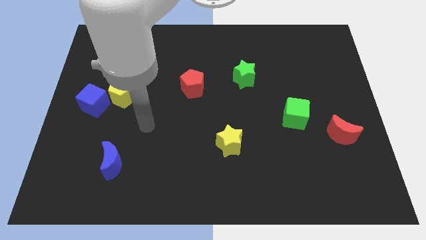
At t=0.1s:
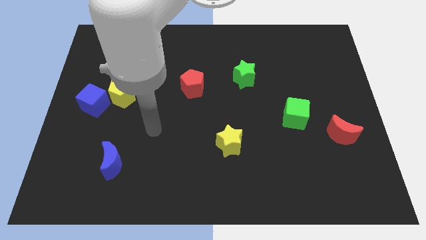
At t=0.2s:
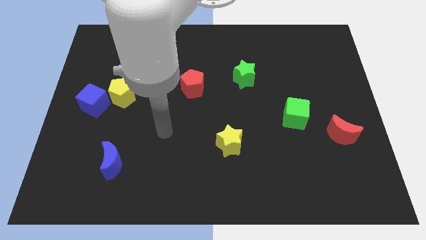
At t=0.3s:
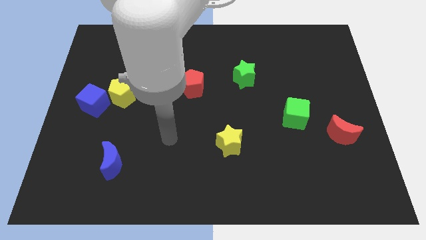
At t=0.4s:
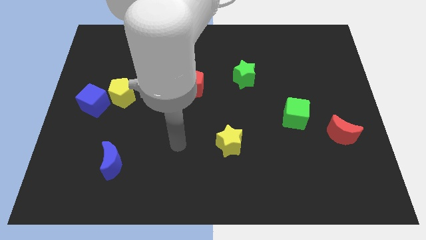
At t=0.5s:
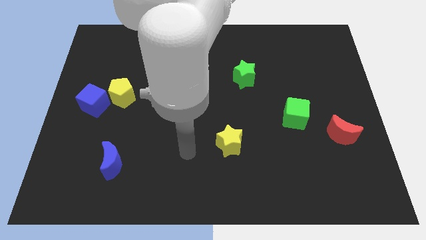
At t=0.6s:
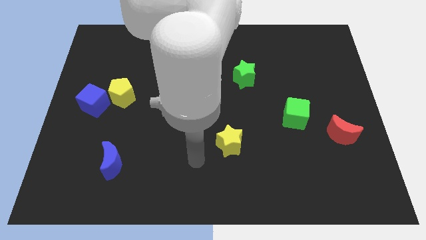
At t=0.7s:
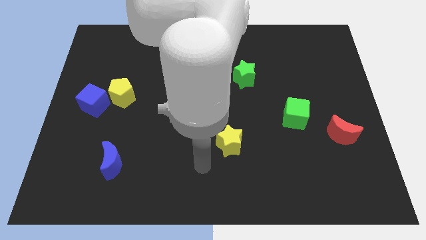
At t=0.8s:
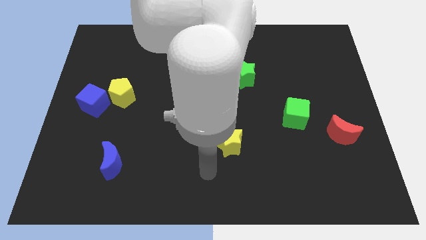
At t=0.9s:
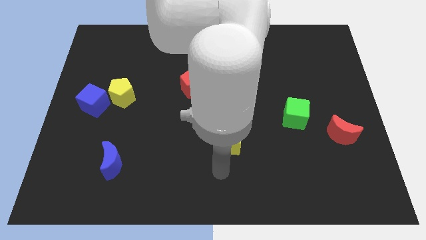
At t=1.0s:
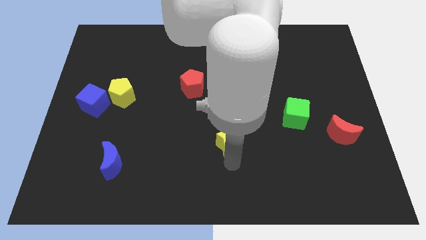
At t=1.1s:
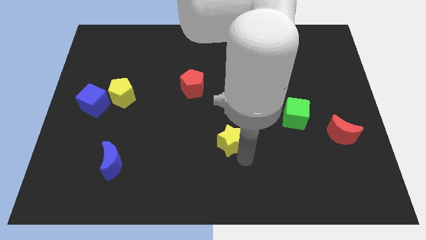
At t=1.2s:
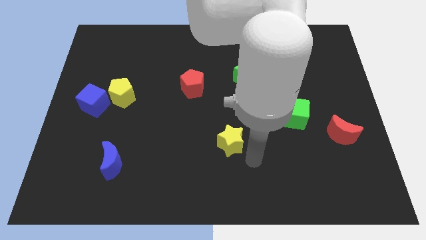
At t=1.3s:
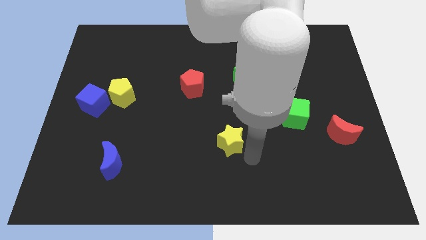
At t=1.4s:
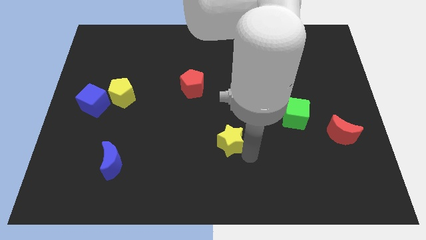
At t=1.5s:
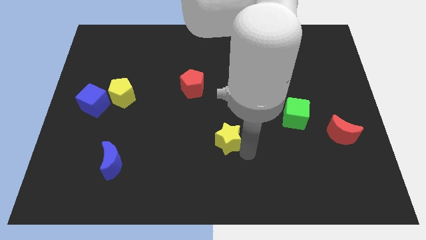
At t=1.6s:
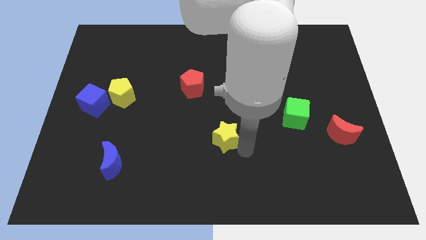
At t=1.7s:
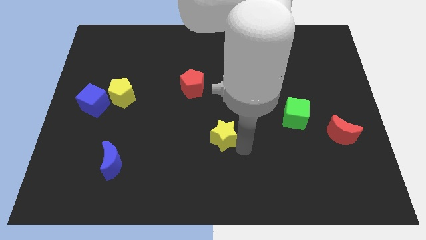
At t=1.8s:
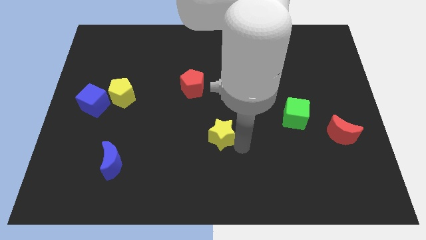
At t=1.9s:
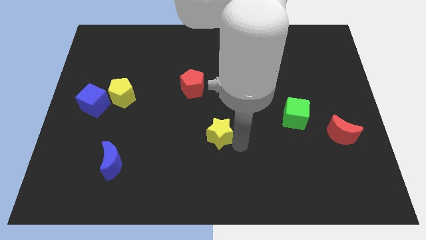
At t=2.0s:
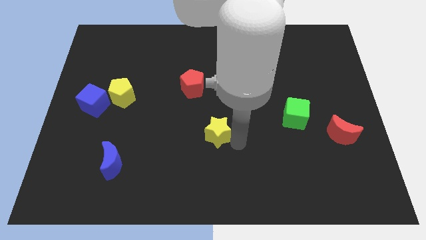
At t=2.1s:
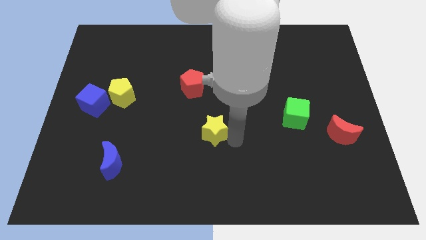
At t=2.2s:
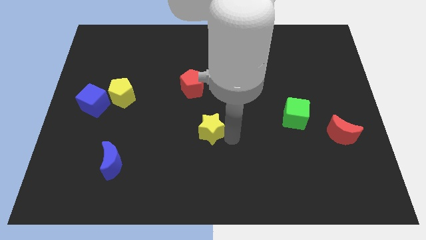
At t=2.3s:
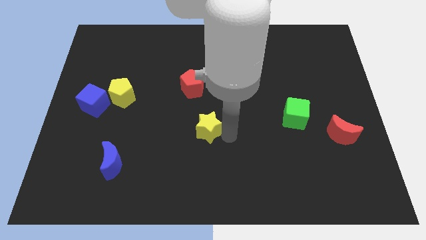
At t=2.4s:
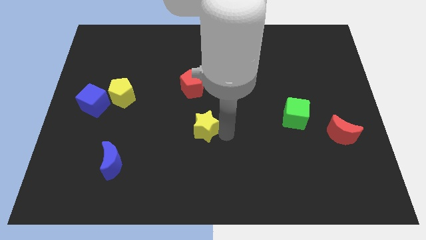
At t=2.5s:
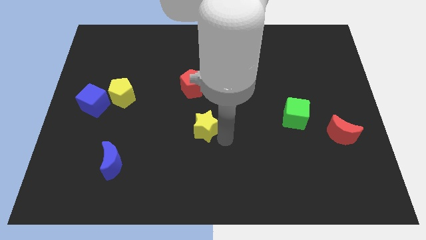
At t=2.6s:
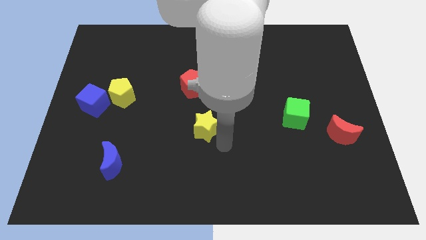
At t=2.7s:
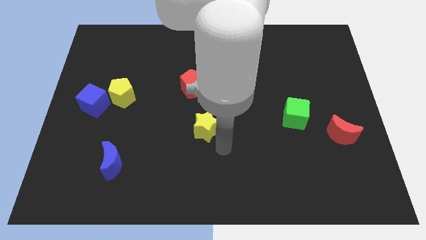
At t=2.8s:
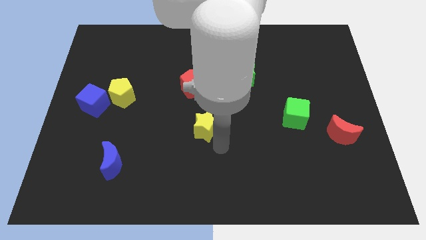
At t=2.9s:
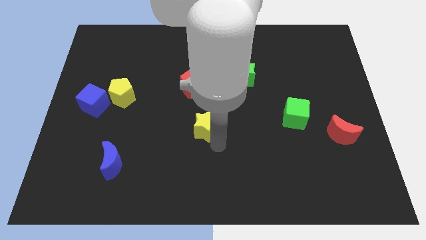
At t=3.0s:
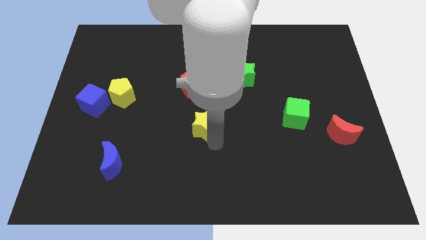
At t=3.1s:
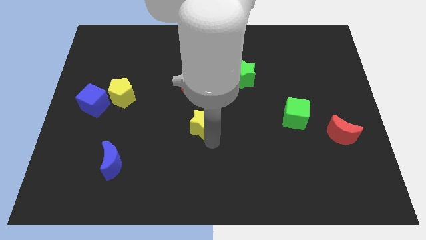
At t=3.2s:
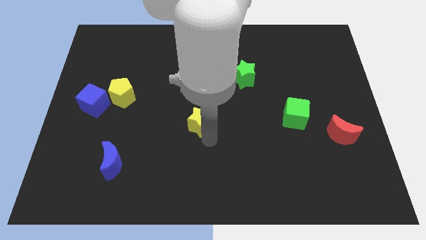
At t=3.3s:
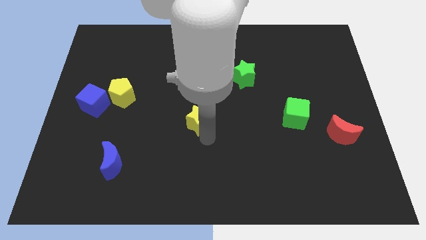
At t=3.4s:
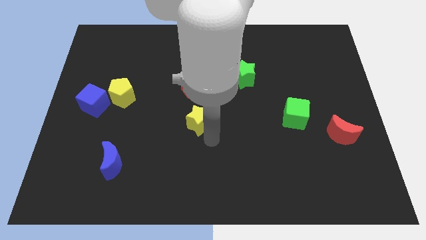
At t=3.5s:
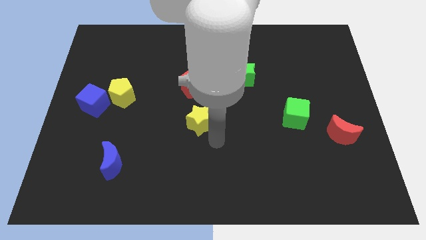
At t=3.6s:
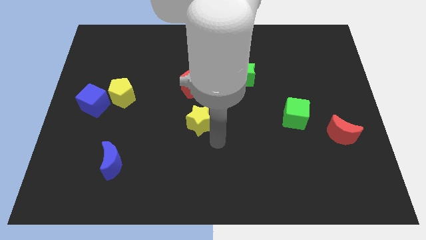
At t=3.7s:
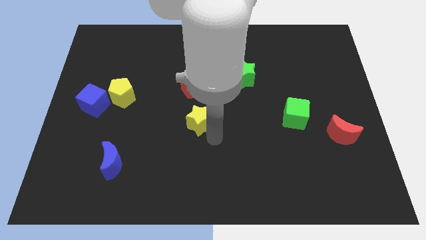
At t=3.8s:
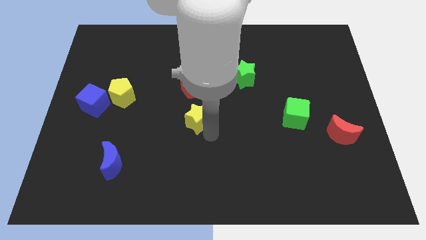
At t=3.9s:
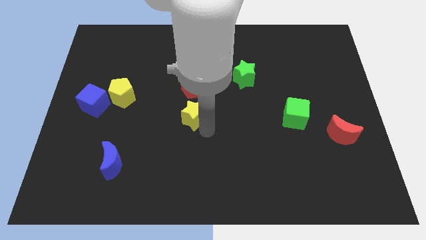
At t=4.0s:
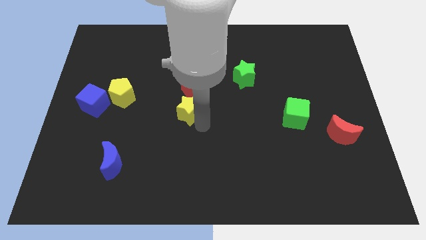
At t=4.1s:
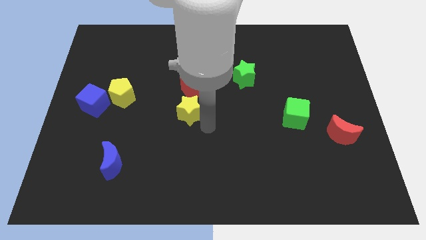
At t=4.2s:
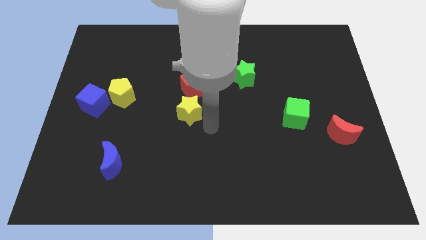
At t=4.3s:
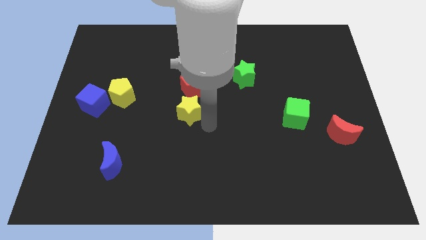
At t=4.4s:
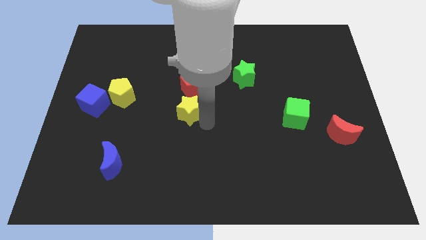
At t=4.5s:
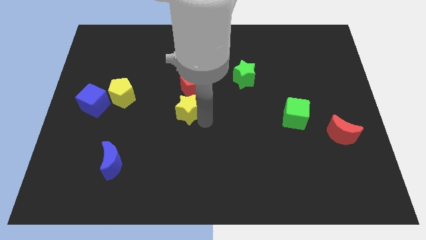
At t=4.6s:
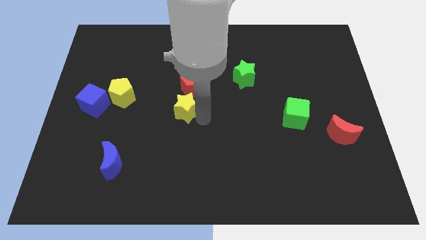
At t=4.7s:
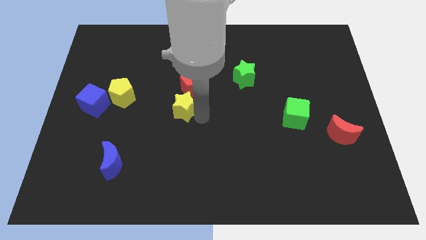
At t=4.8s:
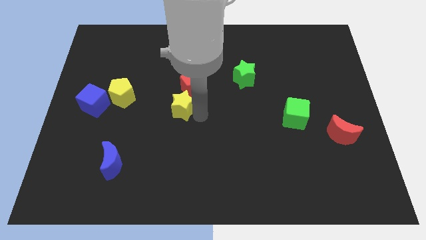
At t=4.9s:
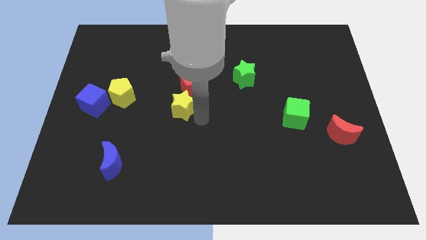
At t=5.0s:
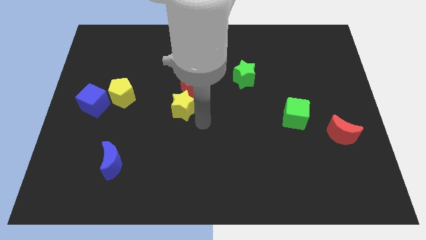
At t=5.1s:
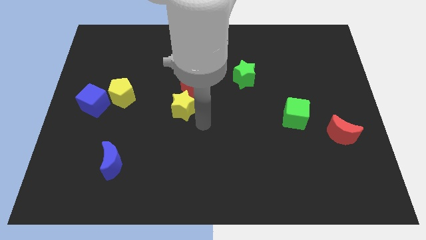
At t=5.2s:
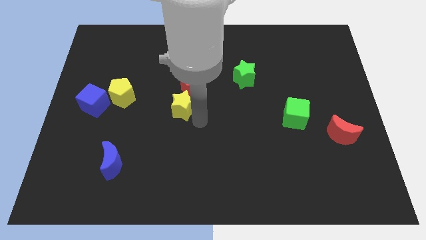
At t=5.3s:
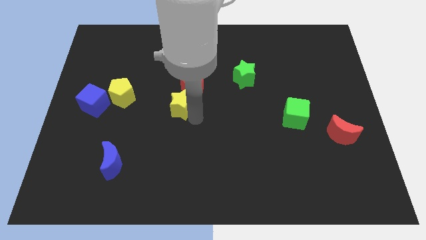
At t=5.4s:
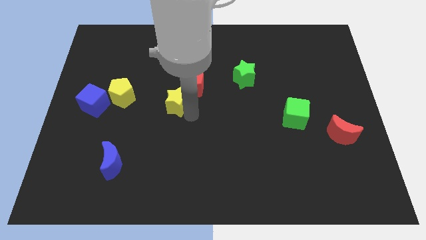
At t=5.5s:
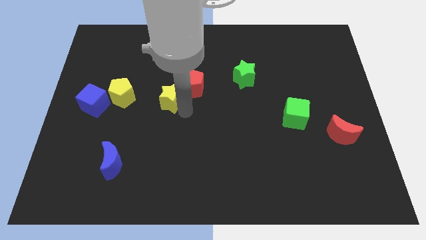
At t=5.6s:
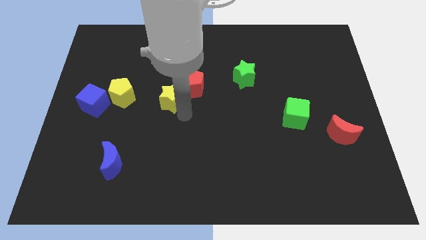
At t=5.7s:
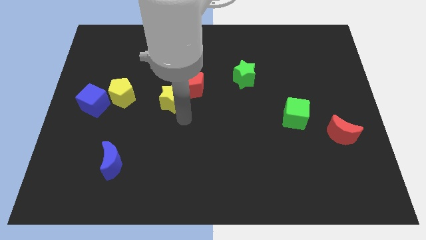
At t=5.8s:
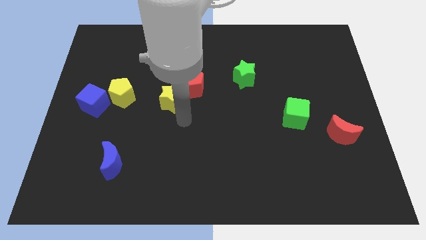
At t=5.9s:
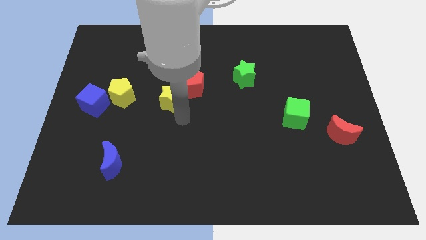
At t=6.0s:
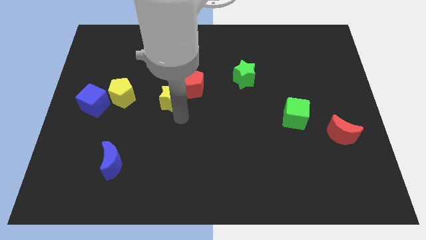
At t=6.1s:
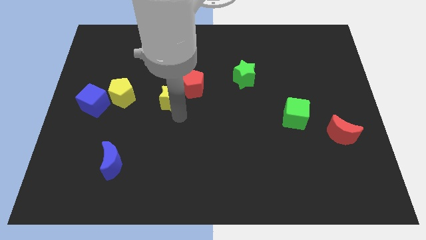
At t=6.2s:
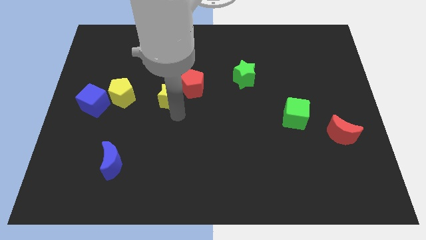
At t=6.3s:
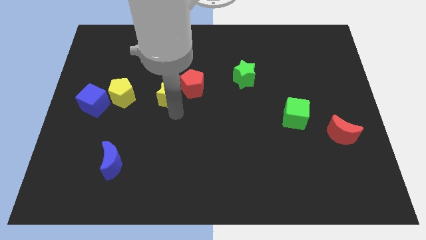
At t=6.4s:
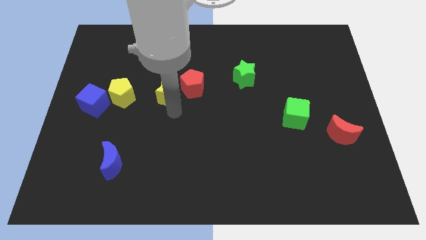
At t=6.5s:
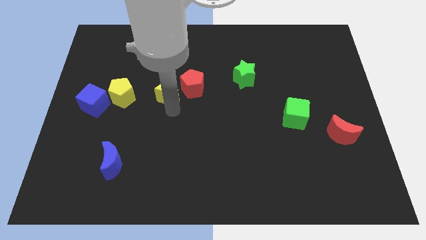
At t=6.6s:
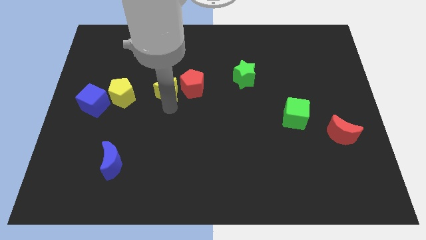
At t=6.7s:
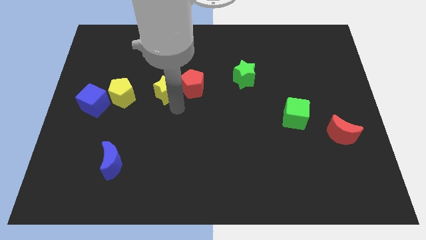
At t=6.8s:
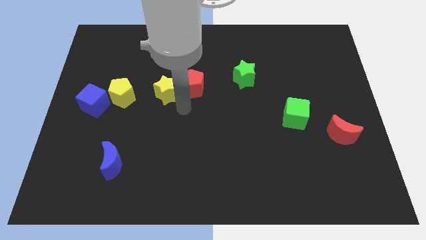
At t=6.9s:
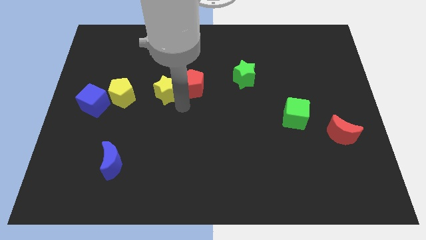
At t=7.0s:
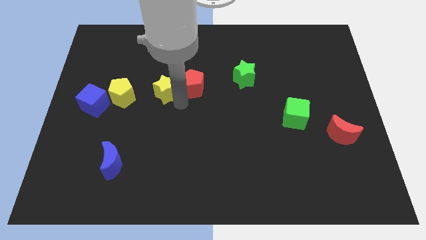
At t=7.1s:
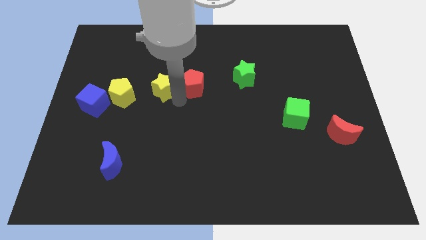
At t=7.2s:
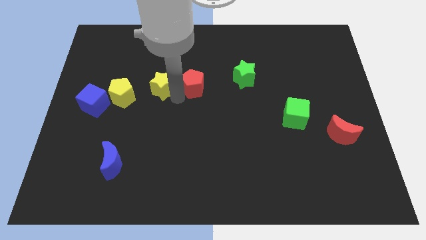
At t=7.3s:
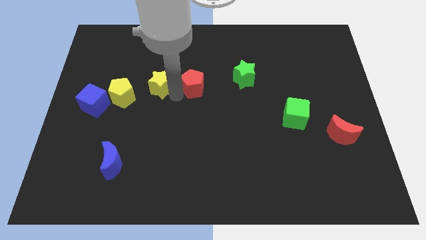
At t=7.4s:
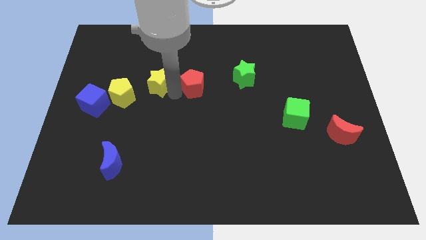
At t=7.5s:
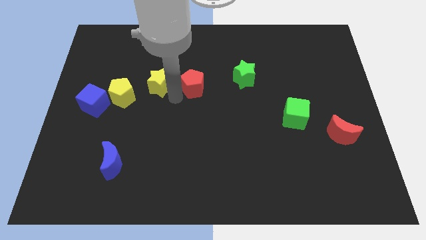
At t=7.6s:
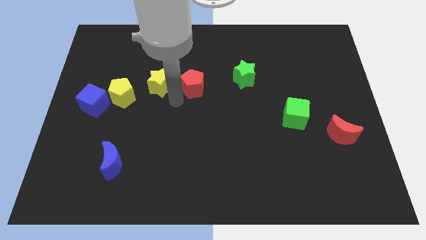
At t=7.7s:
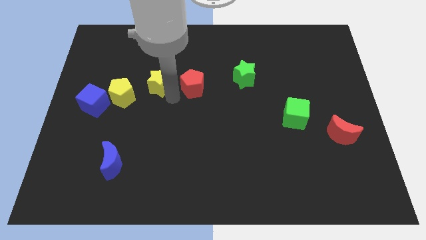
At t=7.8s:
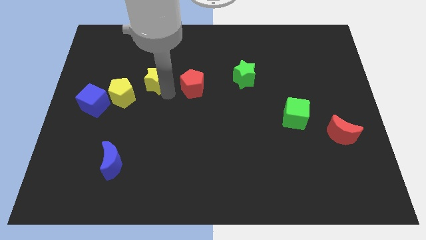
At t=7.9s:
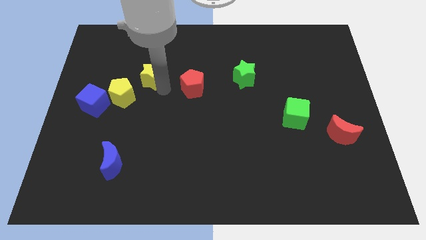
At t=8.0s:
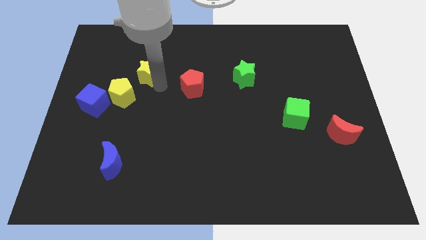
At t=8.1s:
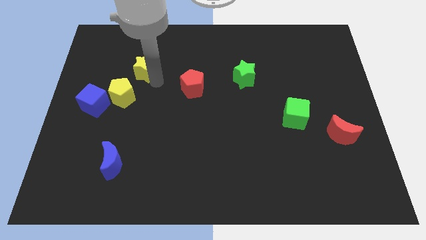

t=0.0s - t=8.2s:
put the yellow star to the top side of the yellow pentagon
